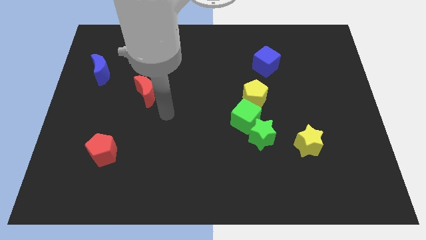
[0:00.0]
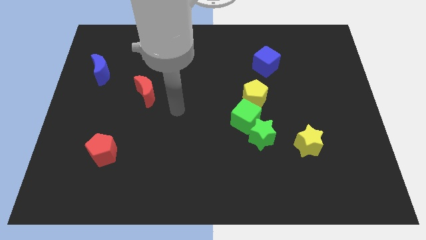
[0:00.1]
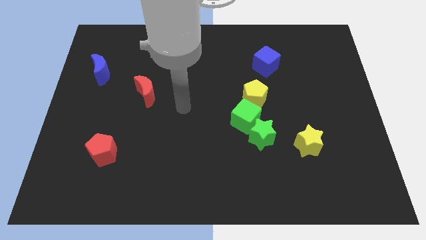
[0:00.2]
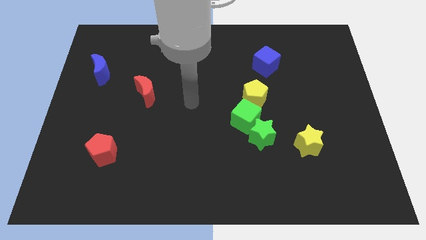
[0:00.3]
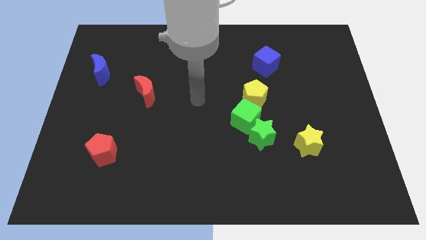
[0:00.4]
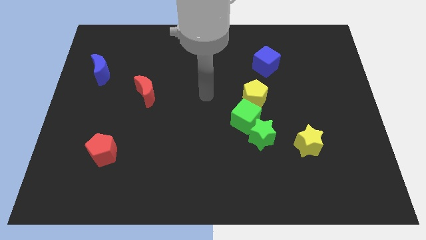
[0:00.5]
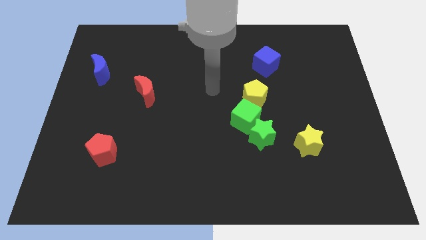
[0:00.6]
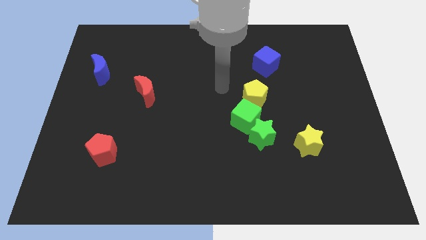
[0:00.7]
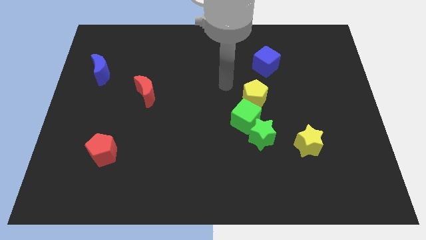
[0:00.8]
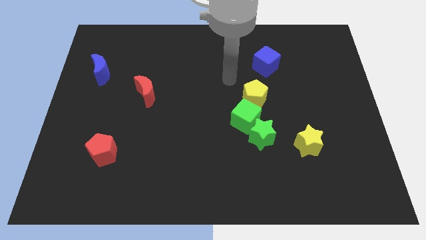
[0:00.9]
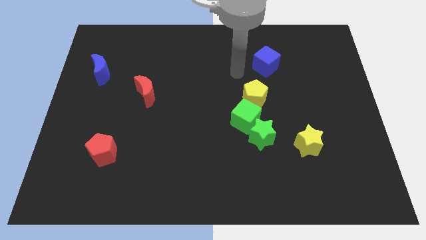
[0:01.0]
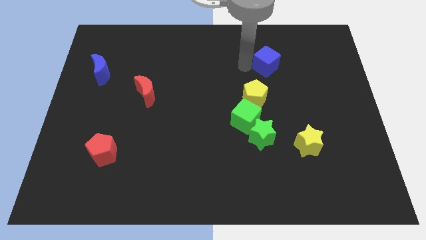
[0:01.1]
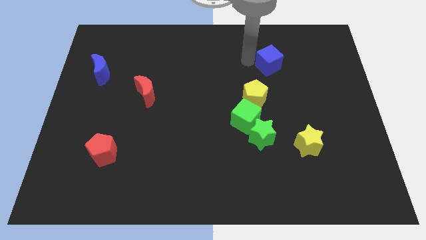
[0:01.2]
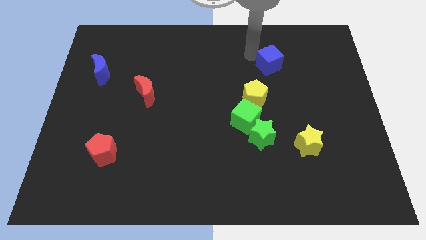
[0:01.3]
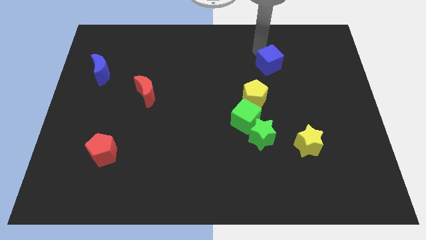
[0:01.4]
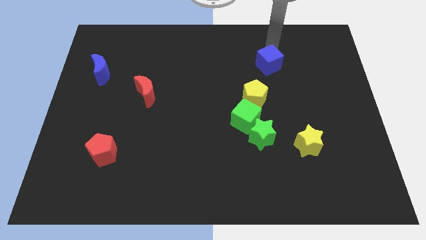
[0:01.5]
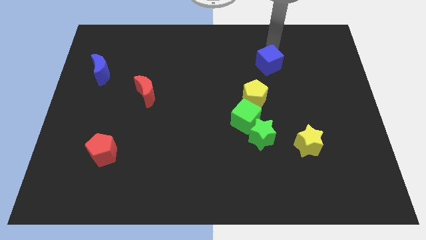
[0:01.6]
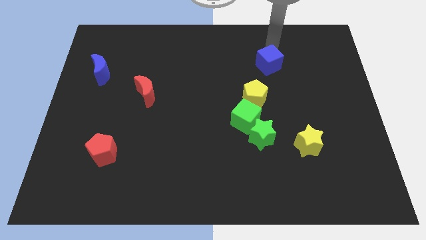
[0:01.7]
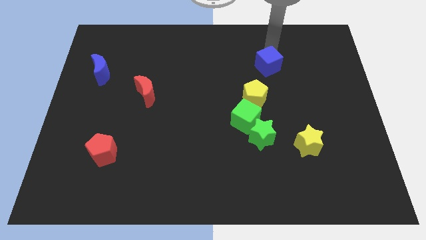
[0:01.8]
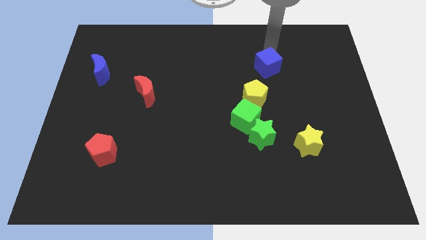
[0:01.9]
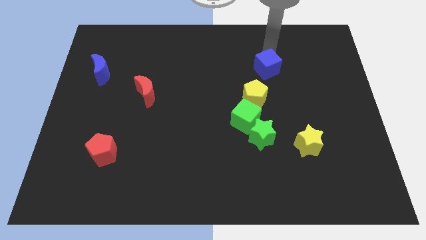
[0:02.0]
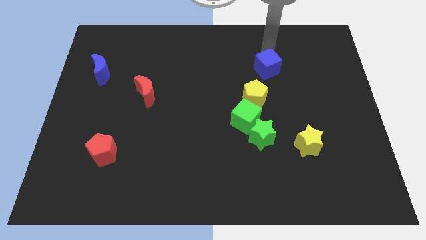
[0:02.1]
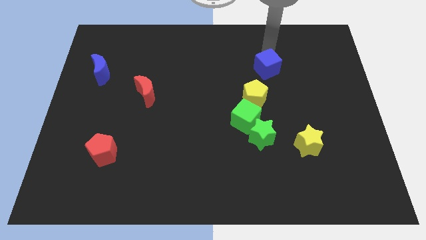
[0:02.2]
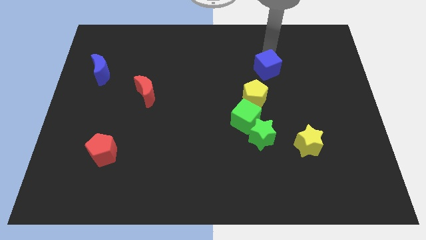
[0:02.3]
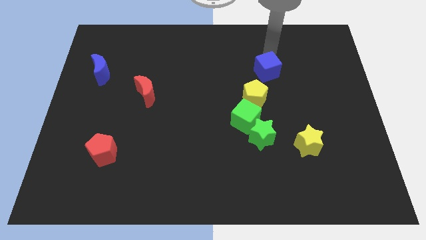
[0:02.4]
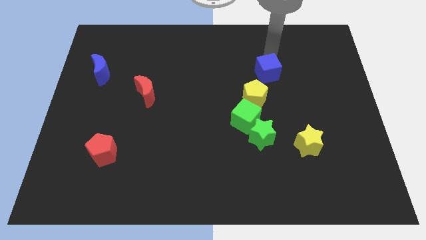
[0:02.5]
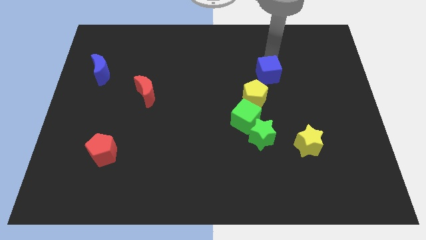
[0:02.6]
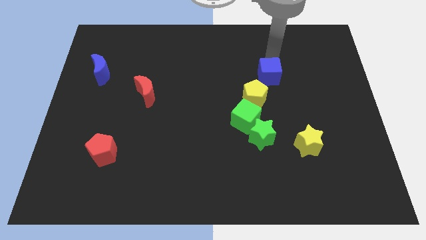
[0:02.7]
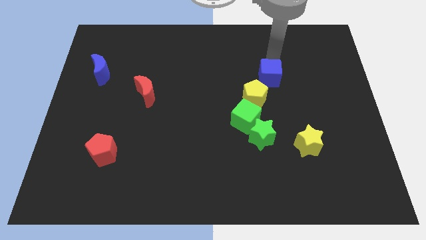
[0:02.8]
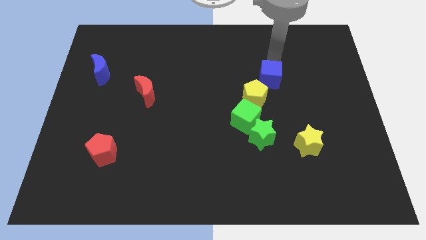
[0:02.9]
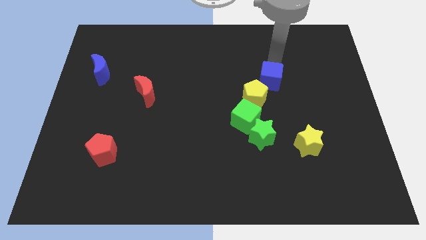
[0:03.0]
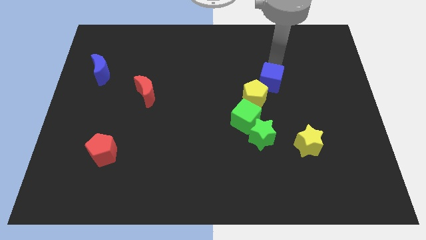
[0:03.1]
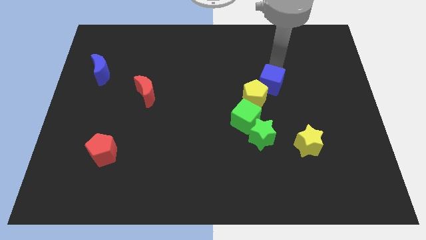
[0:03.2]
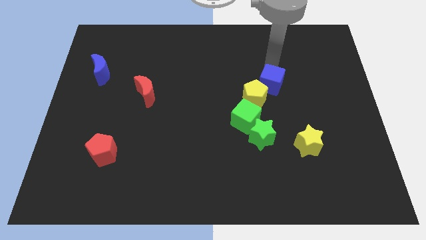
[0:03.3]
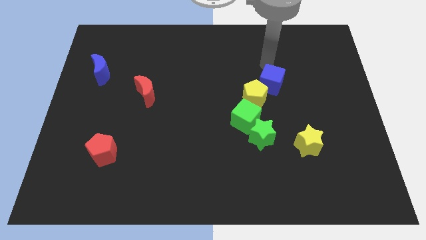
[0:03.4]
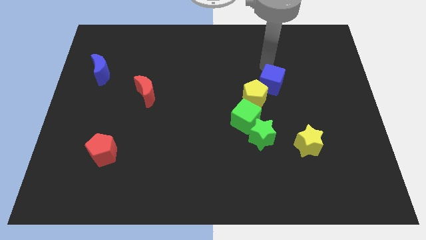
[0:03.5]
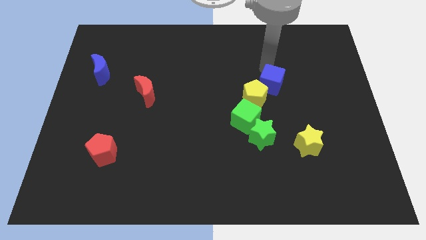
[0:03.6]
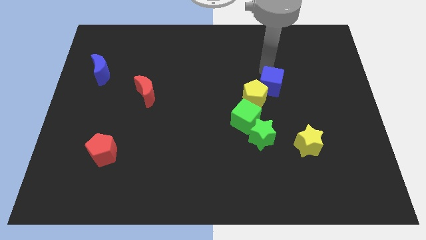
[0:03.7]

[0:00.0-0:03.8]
slightly move the blue cube down

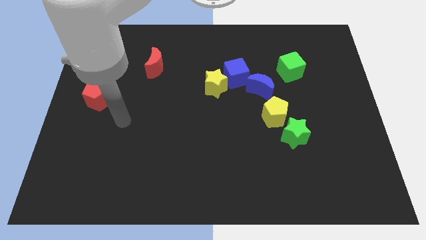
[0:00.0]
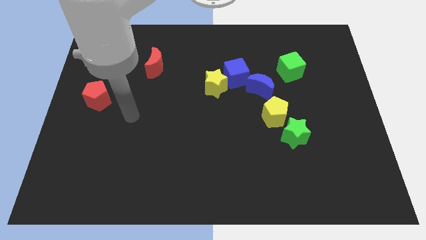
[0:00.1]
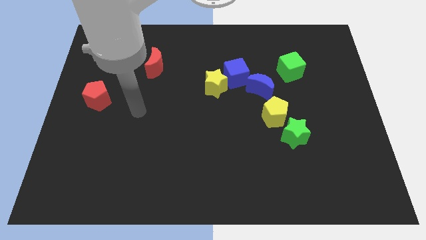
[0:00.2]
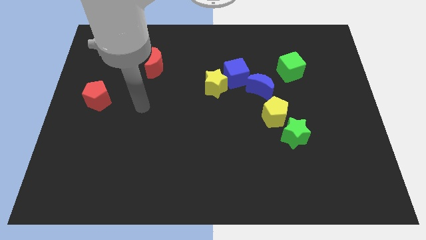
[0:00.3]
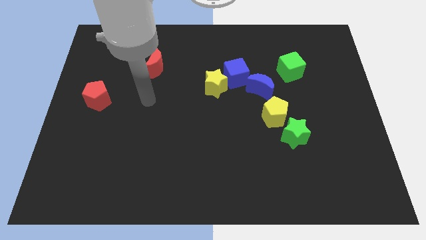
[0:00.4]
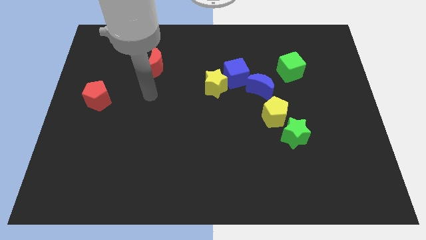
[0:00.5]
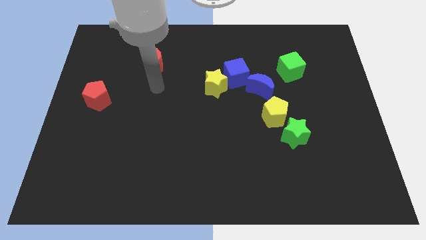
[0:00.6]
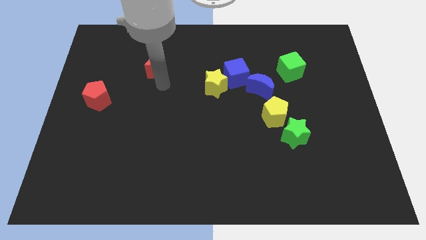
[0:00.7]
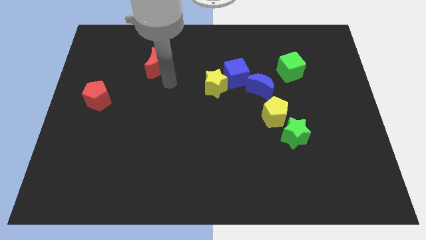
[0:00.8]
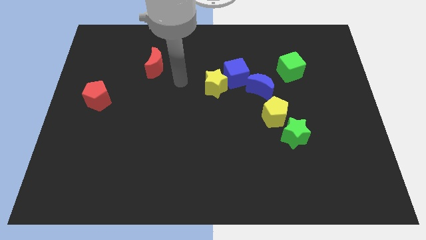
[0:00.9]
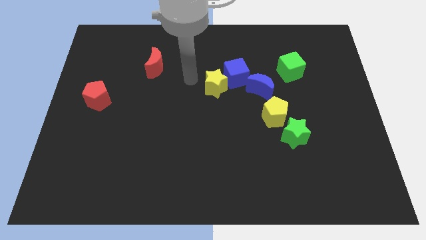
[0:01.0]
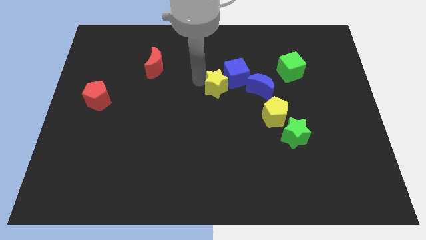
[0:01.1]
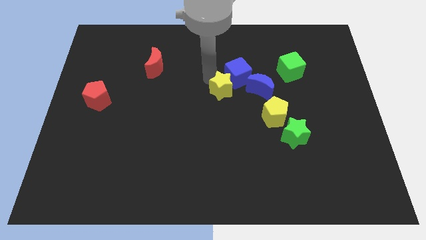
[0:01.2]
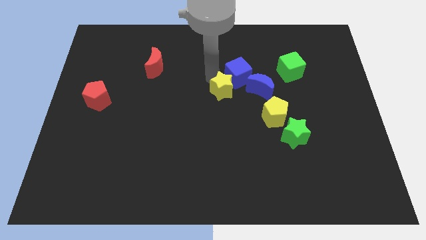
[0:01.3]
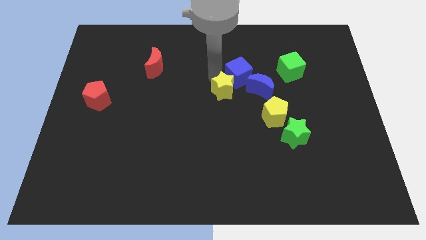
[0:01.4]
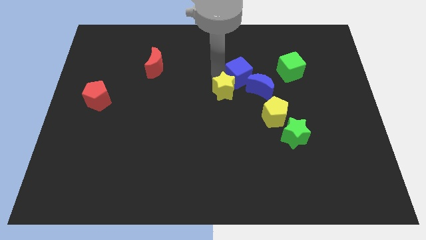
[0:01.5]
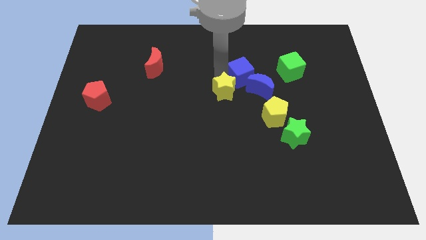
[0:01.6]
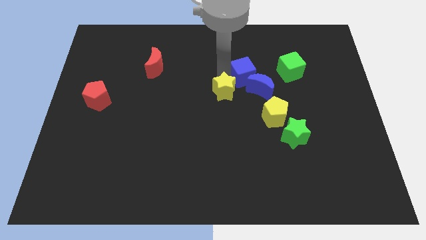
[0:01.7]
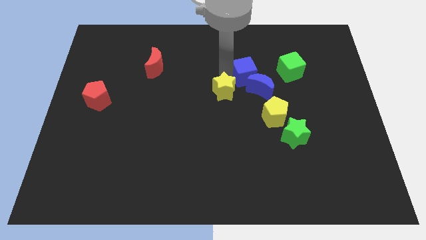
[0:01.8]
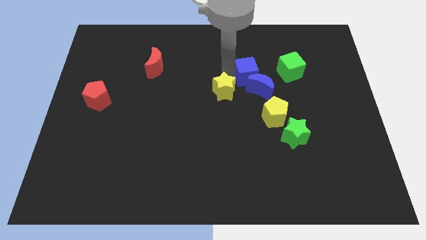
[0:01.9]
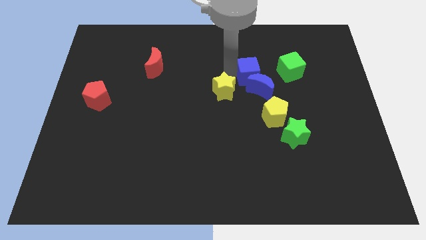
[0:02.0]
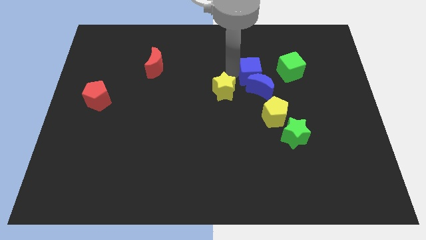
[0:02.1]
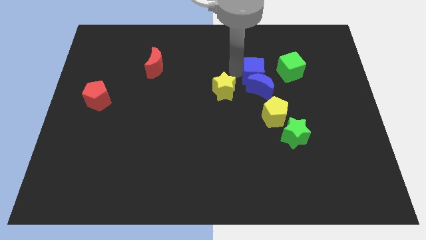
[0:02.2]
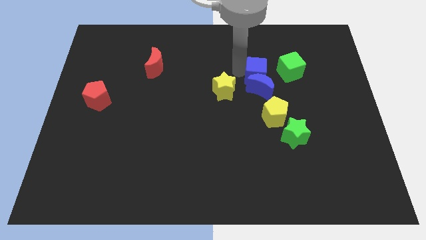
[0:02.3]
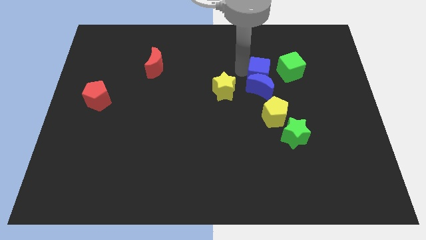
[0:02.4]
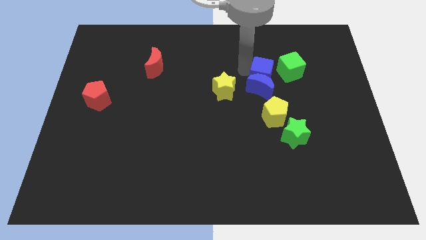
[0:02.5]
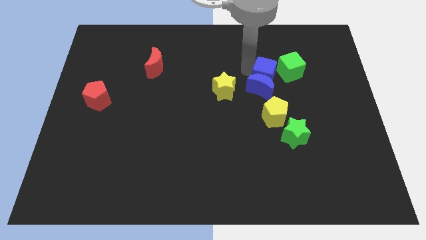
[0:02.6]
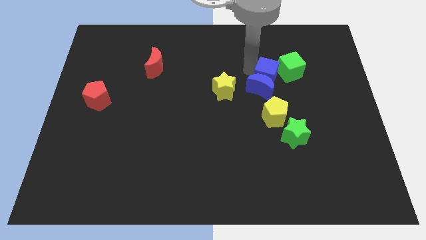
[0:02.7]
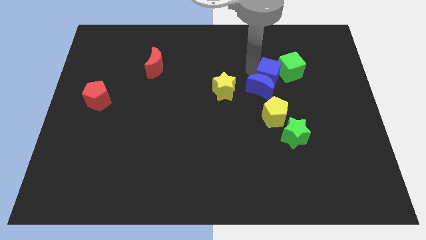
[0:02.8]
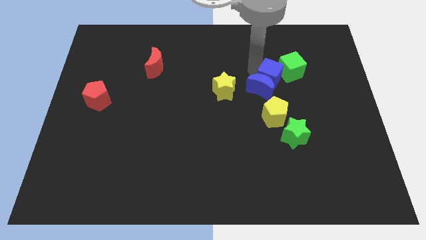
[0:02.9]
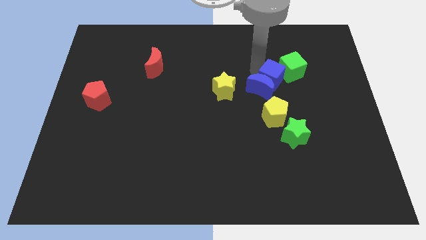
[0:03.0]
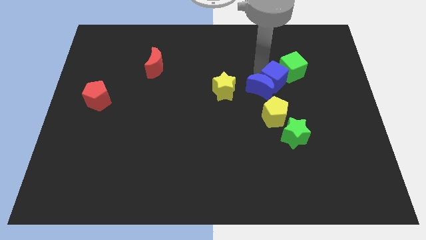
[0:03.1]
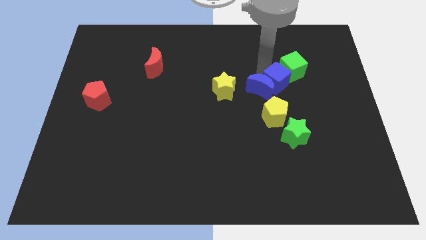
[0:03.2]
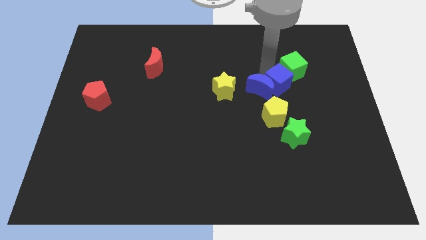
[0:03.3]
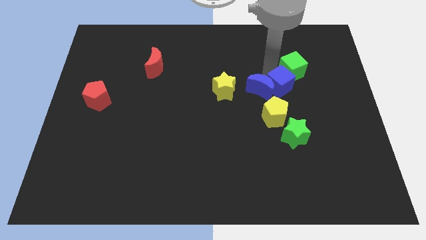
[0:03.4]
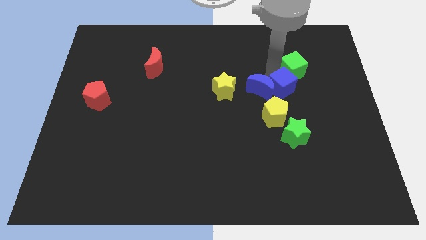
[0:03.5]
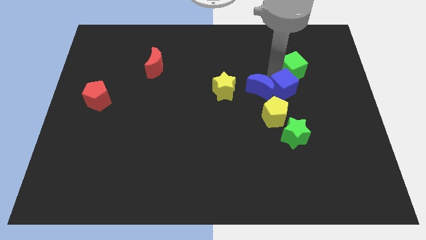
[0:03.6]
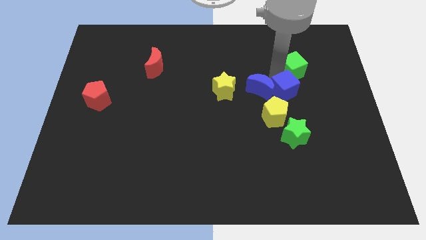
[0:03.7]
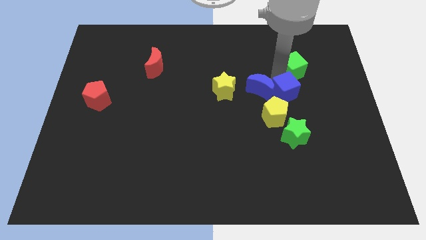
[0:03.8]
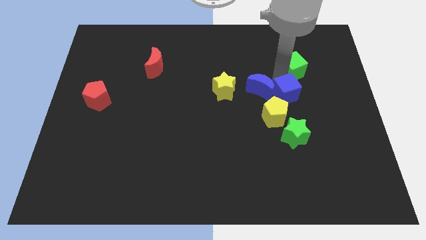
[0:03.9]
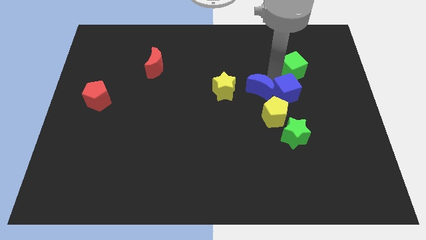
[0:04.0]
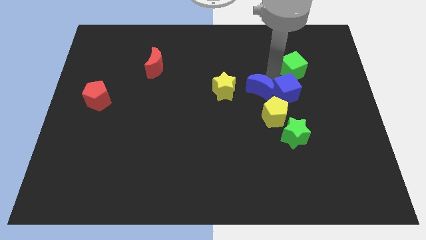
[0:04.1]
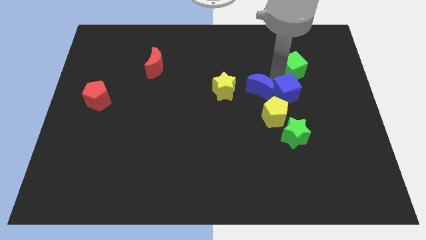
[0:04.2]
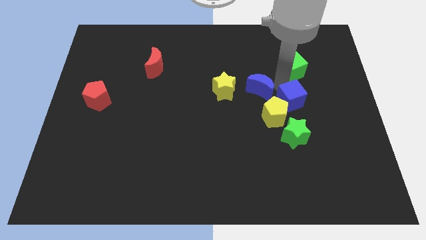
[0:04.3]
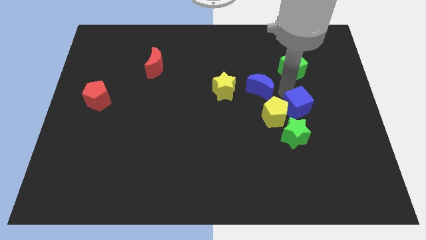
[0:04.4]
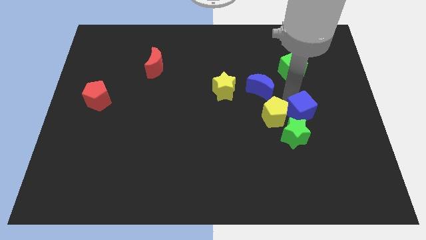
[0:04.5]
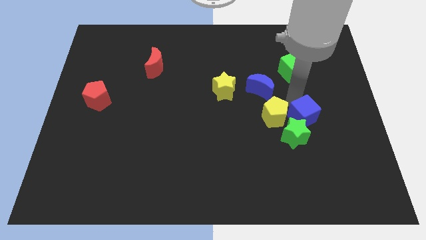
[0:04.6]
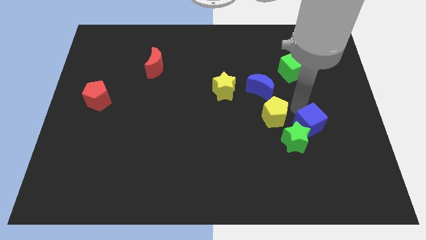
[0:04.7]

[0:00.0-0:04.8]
slide the blue cube down and right diagonally
